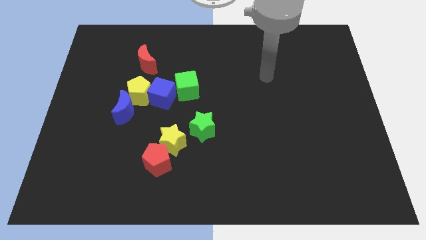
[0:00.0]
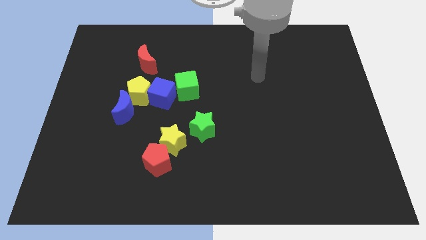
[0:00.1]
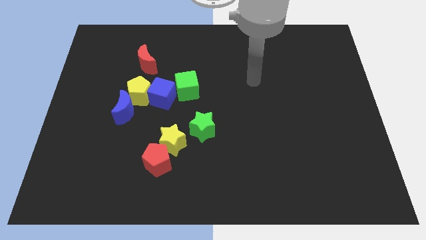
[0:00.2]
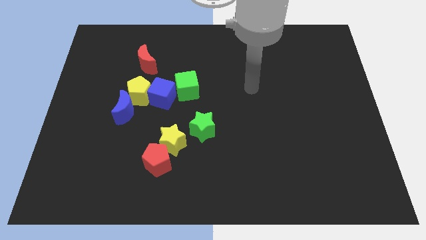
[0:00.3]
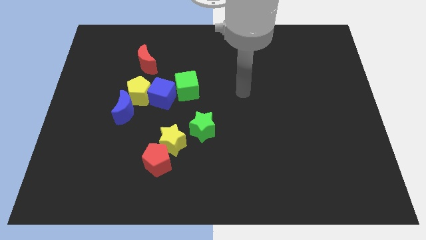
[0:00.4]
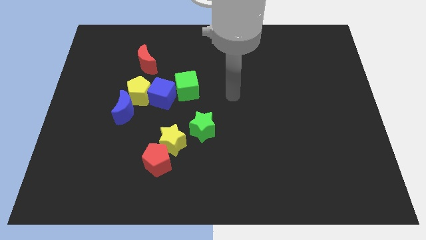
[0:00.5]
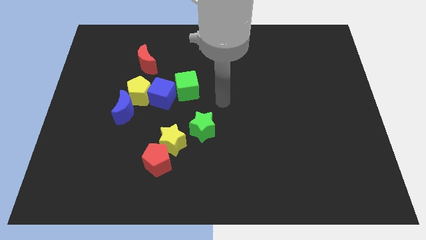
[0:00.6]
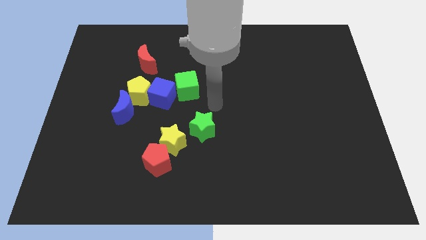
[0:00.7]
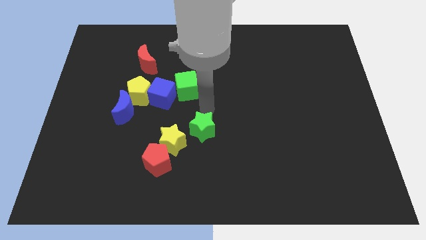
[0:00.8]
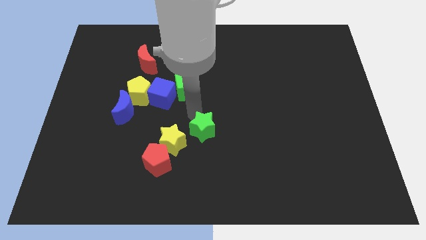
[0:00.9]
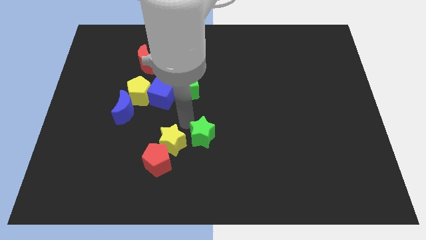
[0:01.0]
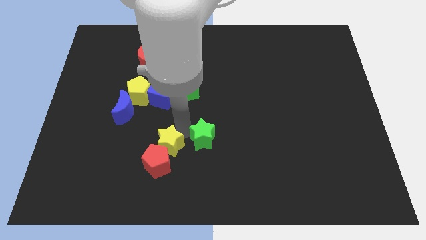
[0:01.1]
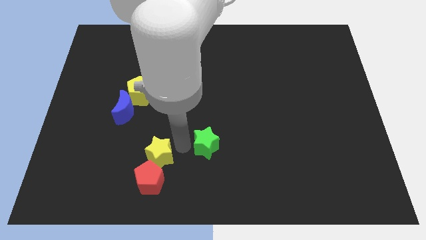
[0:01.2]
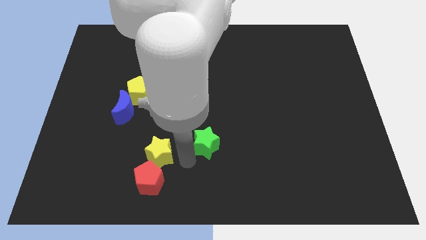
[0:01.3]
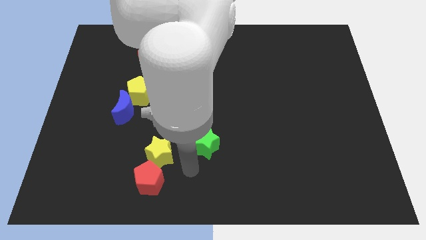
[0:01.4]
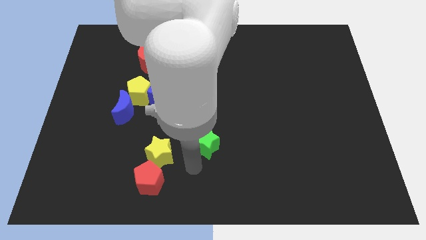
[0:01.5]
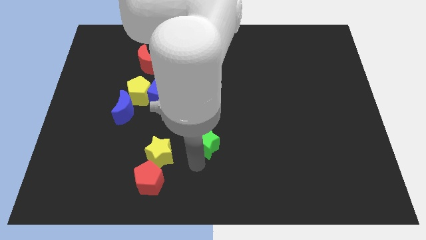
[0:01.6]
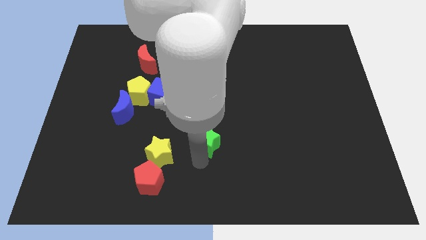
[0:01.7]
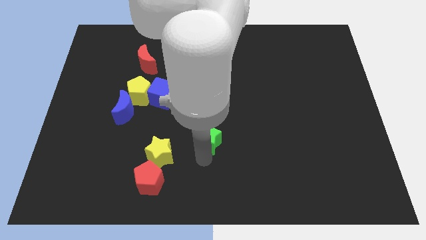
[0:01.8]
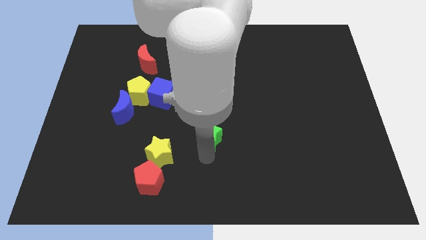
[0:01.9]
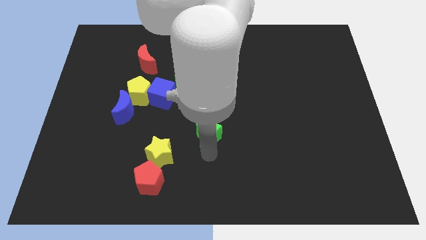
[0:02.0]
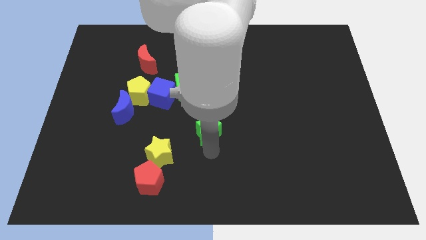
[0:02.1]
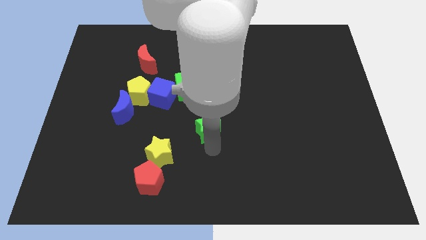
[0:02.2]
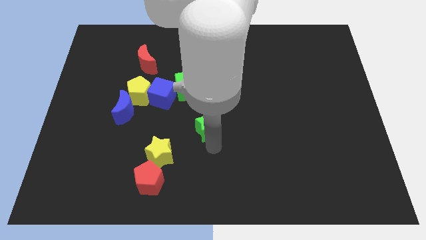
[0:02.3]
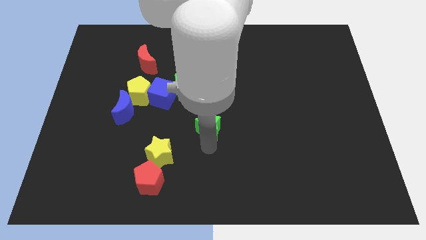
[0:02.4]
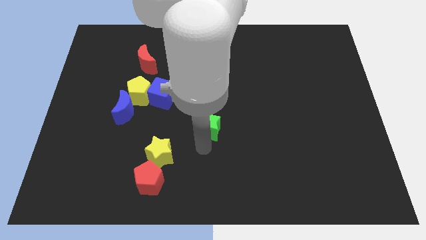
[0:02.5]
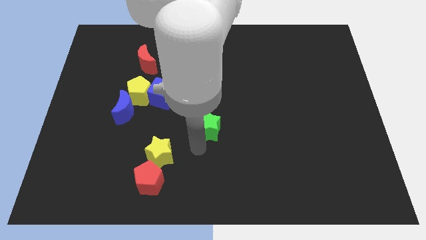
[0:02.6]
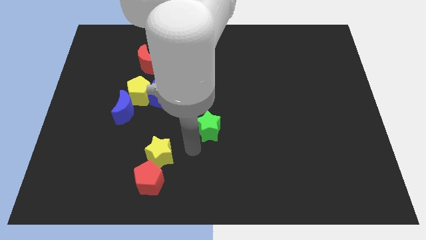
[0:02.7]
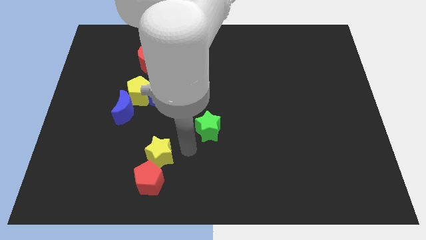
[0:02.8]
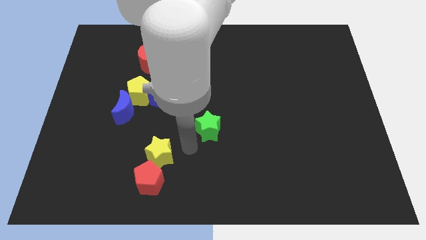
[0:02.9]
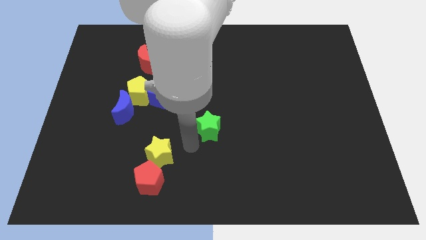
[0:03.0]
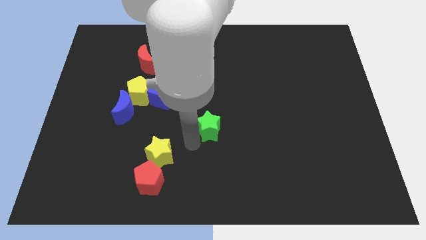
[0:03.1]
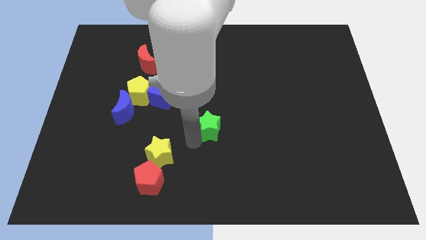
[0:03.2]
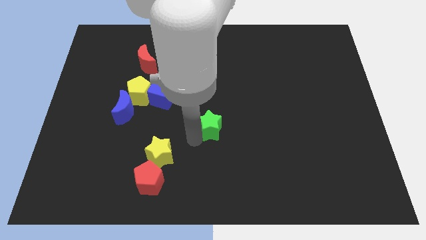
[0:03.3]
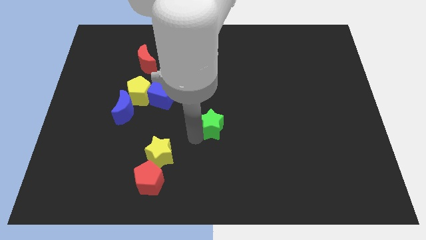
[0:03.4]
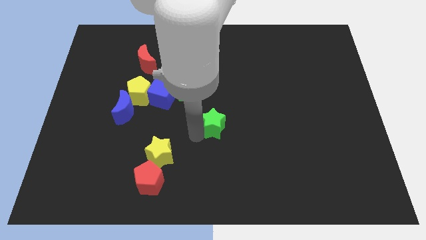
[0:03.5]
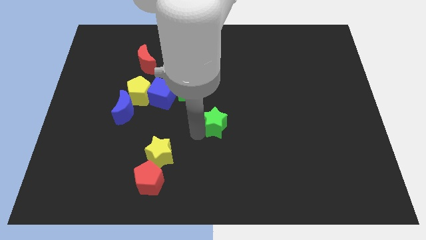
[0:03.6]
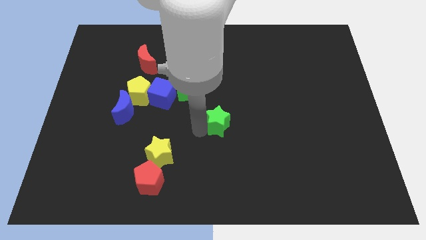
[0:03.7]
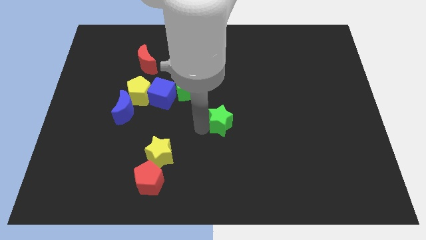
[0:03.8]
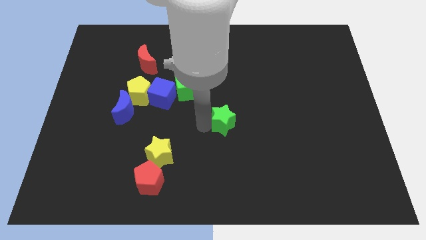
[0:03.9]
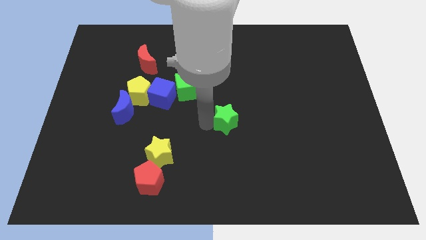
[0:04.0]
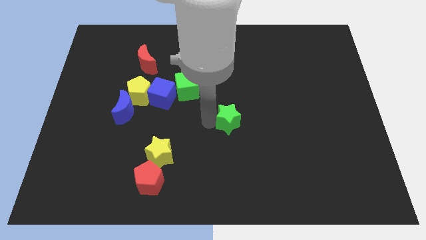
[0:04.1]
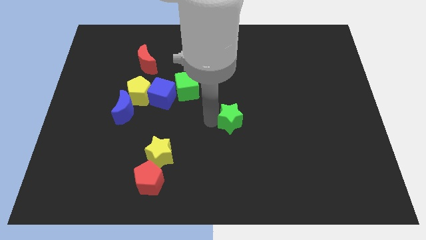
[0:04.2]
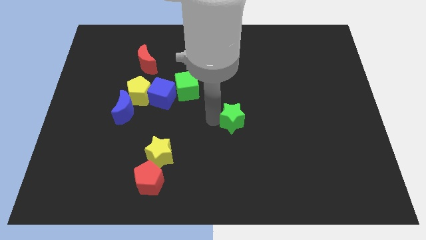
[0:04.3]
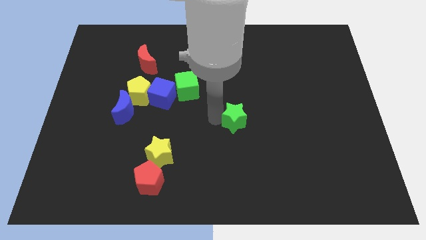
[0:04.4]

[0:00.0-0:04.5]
slightly move the green star right

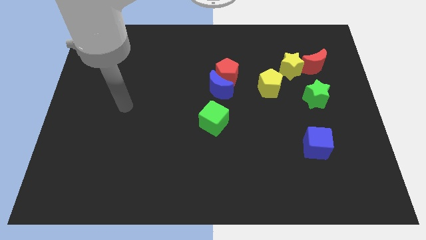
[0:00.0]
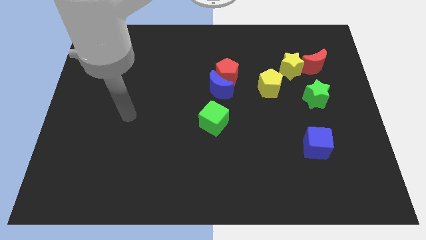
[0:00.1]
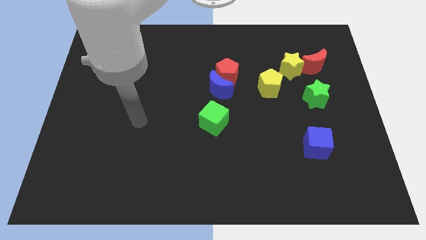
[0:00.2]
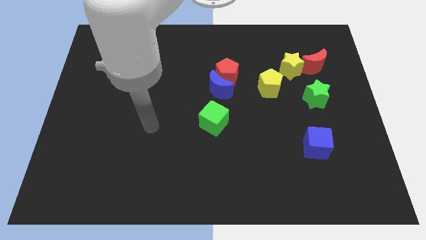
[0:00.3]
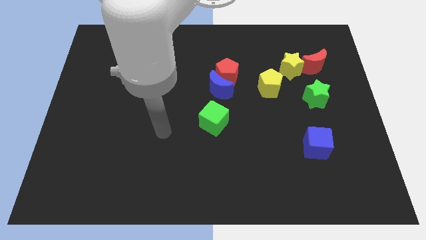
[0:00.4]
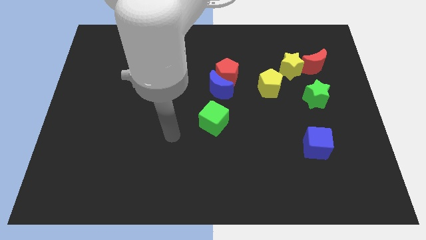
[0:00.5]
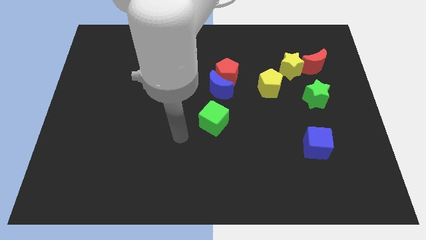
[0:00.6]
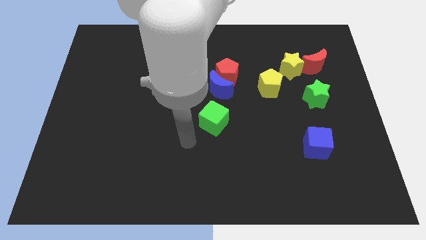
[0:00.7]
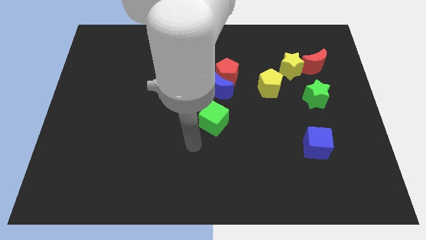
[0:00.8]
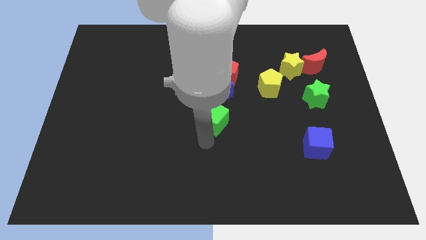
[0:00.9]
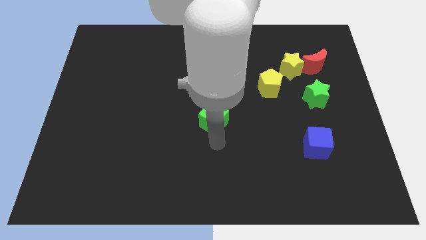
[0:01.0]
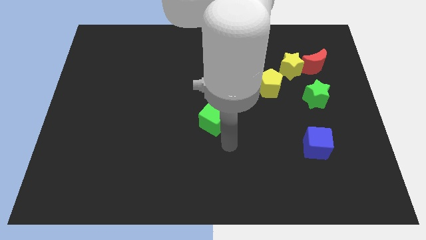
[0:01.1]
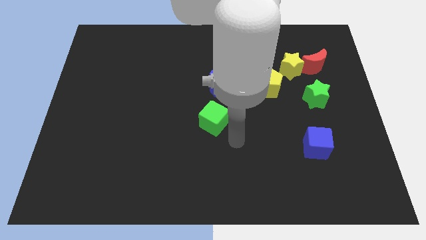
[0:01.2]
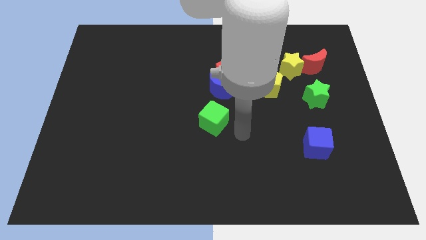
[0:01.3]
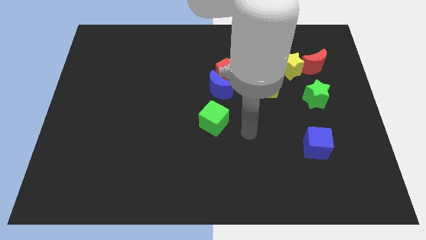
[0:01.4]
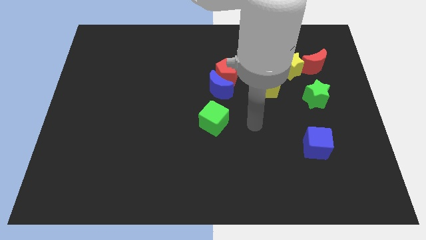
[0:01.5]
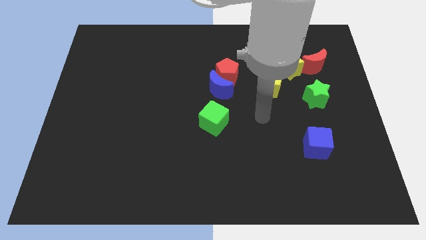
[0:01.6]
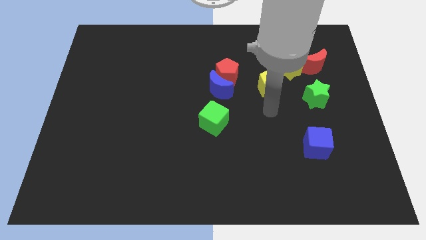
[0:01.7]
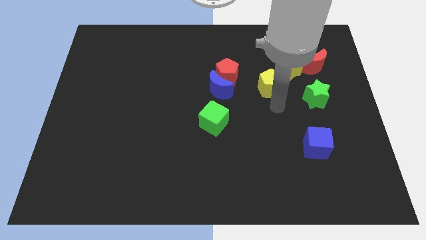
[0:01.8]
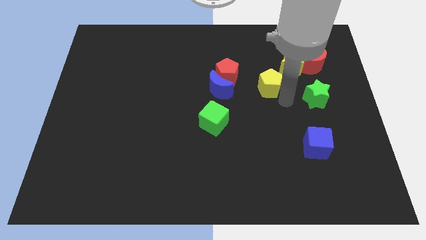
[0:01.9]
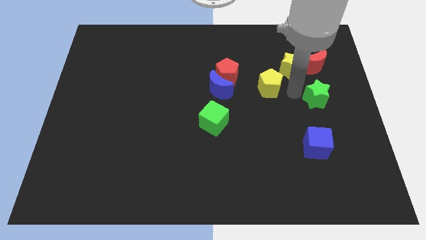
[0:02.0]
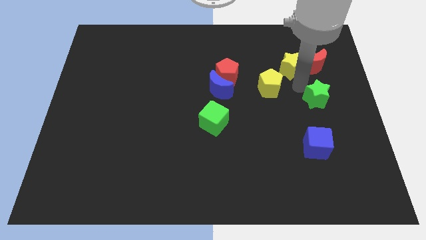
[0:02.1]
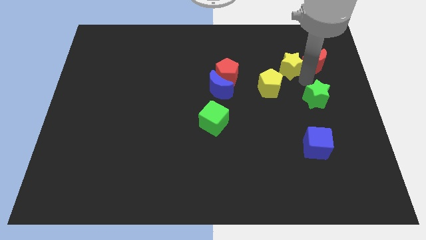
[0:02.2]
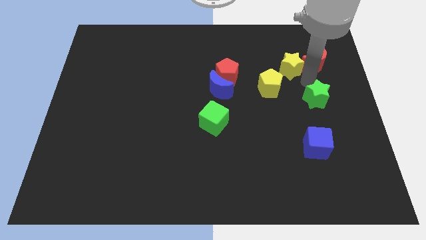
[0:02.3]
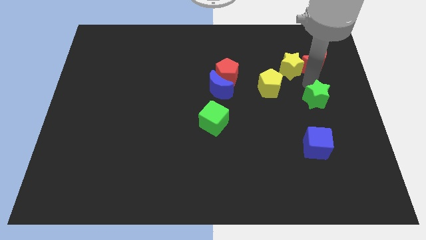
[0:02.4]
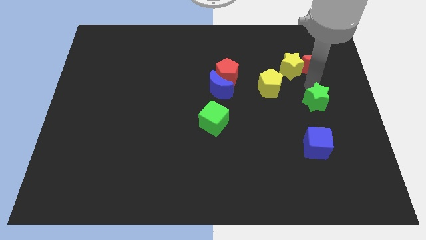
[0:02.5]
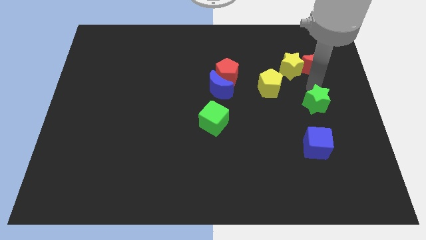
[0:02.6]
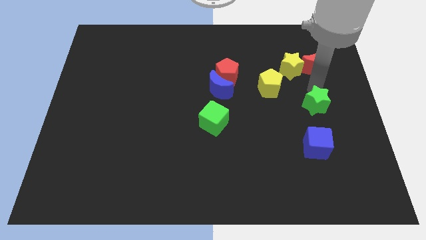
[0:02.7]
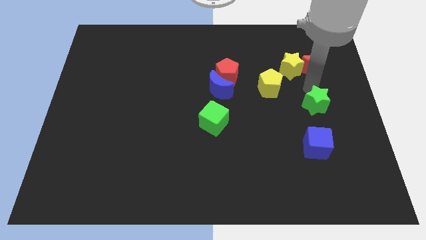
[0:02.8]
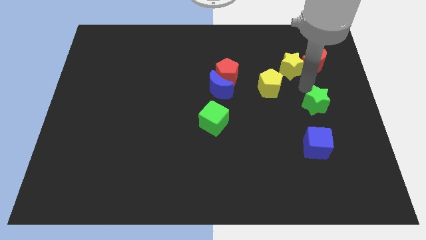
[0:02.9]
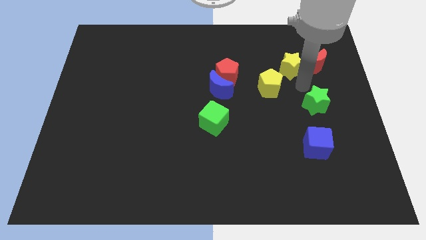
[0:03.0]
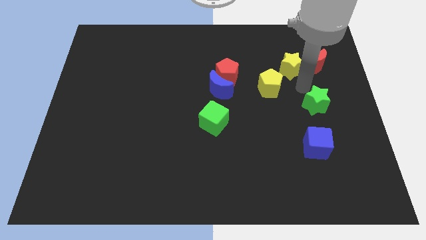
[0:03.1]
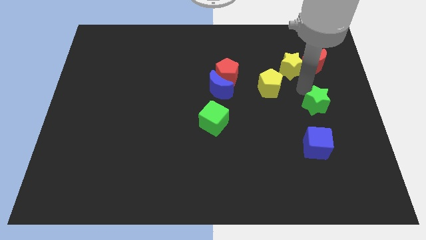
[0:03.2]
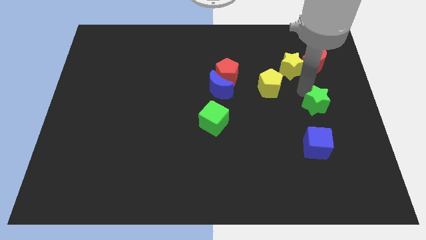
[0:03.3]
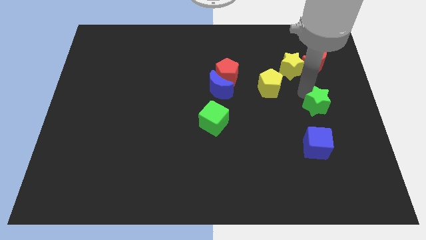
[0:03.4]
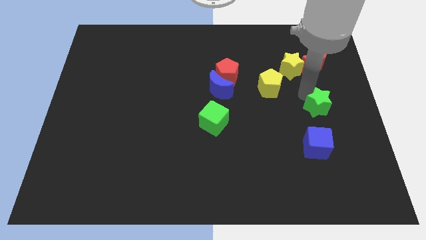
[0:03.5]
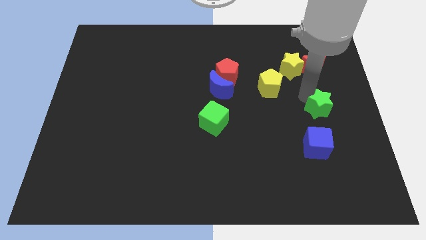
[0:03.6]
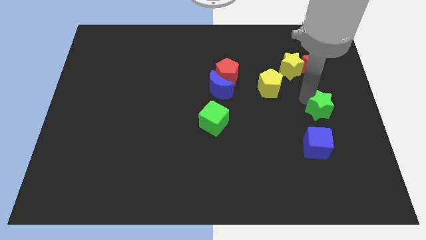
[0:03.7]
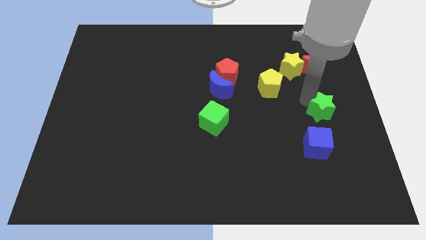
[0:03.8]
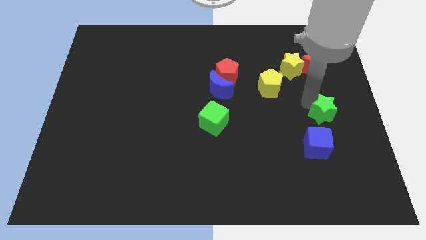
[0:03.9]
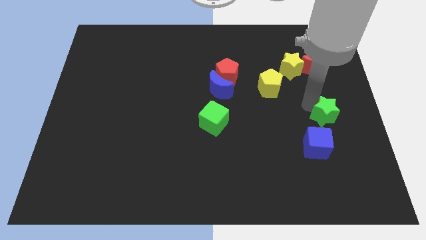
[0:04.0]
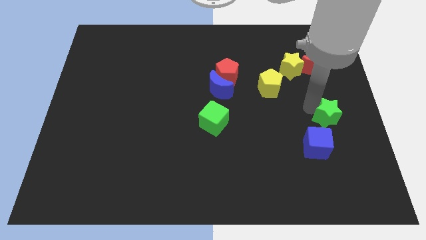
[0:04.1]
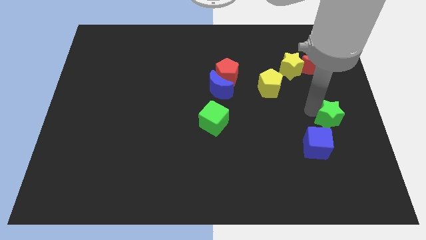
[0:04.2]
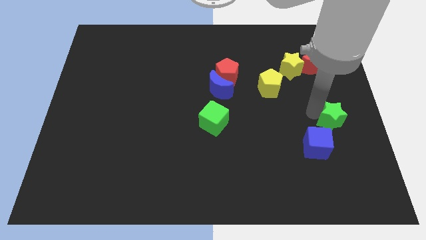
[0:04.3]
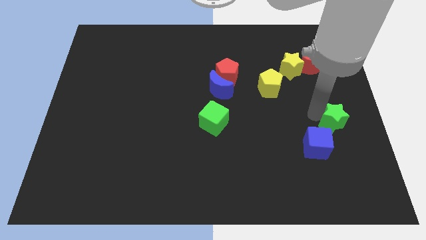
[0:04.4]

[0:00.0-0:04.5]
push the green star down somewhat
